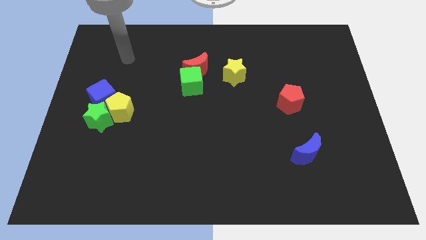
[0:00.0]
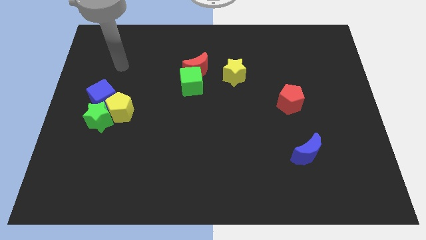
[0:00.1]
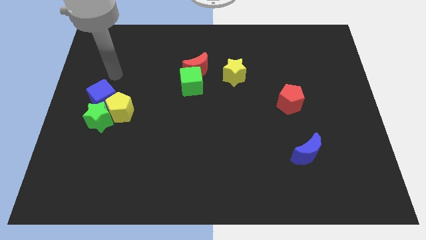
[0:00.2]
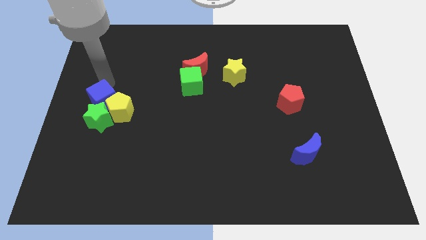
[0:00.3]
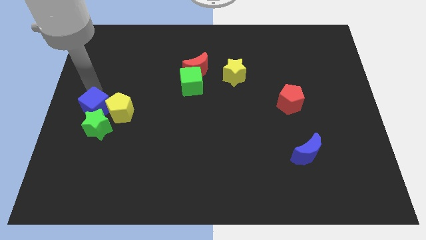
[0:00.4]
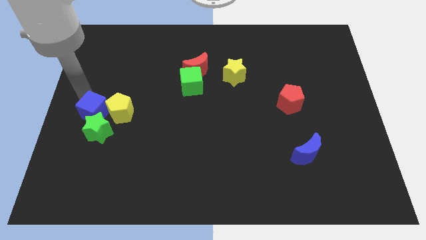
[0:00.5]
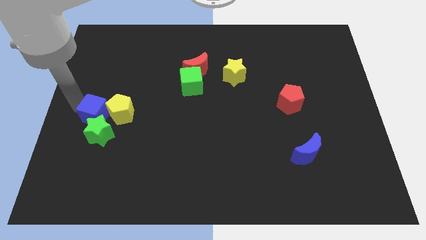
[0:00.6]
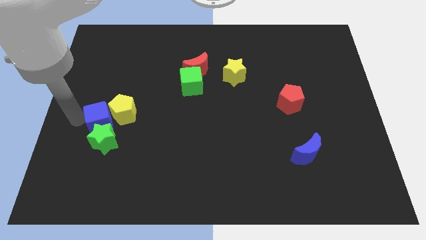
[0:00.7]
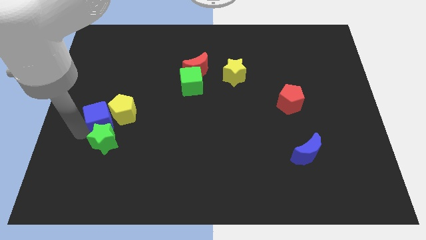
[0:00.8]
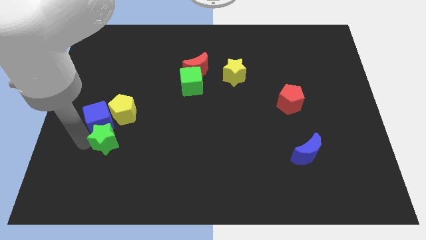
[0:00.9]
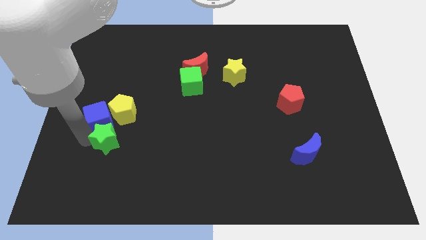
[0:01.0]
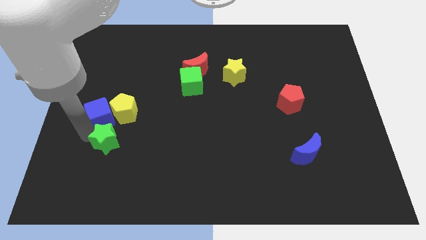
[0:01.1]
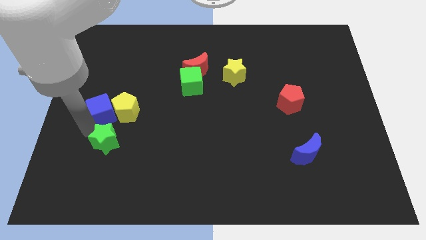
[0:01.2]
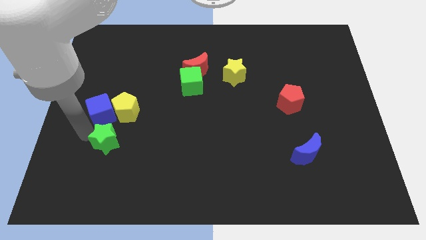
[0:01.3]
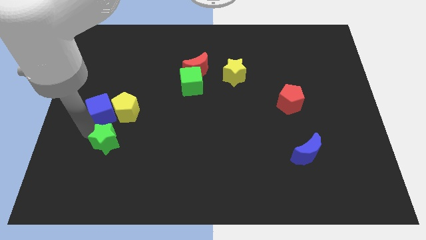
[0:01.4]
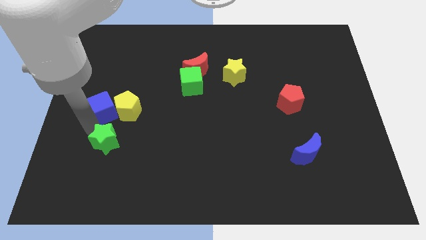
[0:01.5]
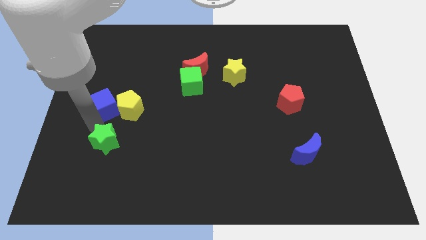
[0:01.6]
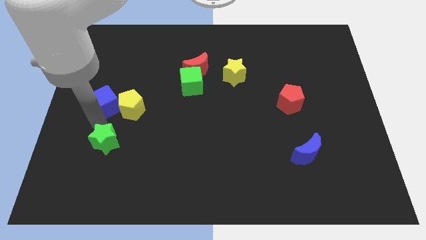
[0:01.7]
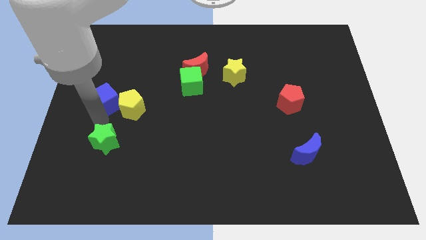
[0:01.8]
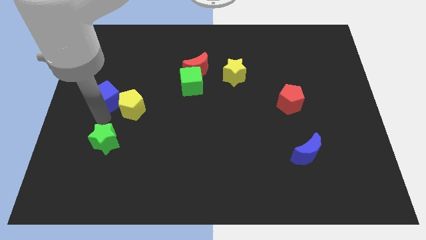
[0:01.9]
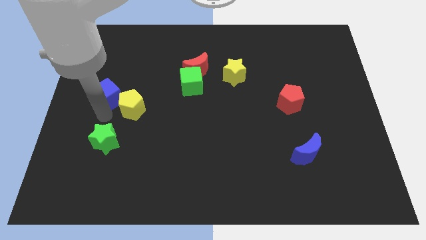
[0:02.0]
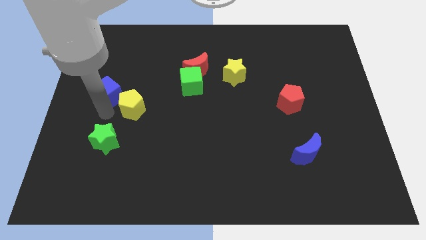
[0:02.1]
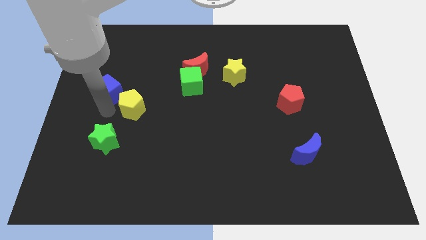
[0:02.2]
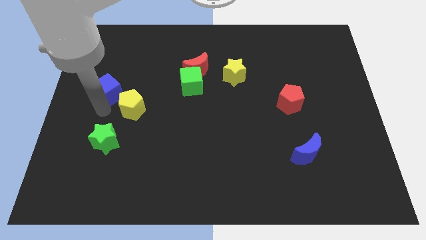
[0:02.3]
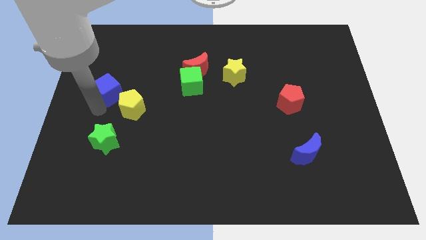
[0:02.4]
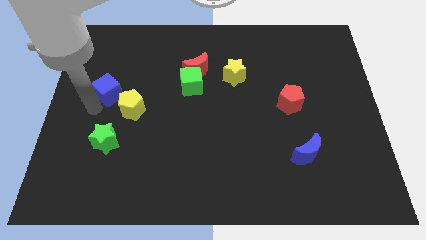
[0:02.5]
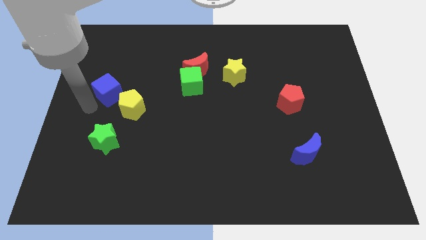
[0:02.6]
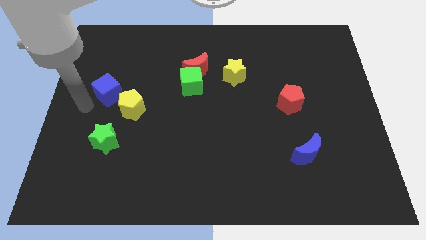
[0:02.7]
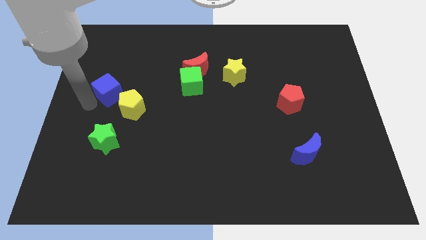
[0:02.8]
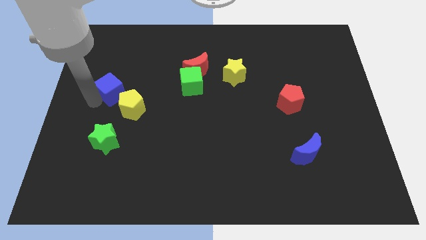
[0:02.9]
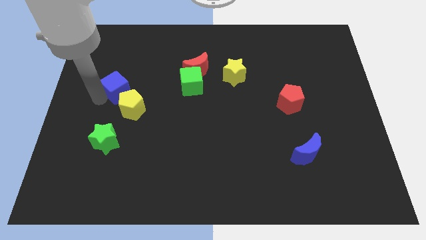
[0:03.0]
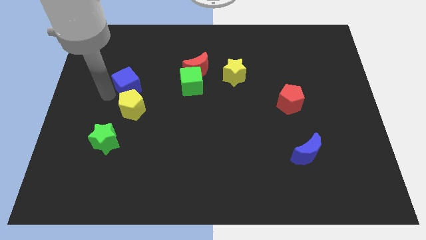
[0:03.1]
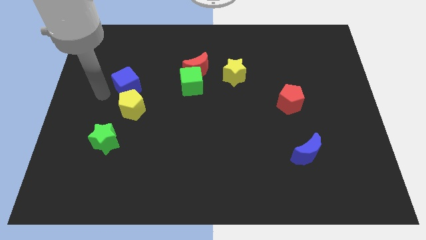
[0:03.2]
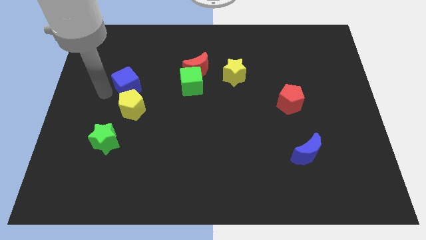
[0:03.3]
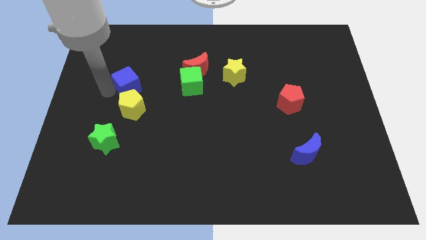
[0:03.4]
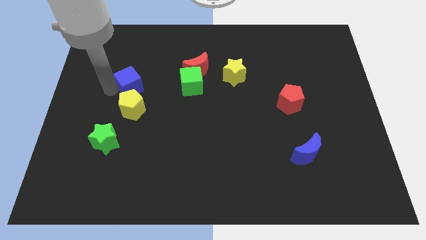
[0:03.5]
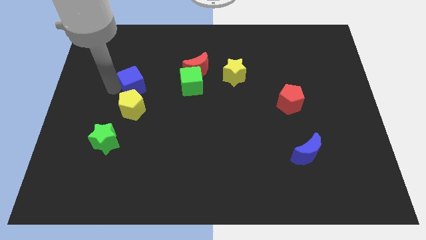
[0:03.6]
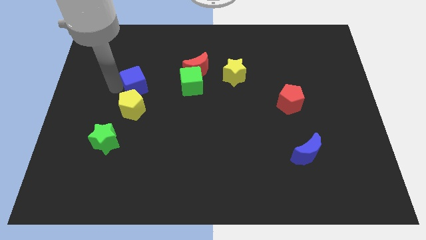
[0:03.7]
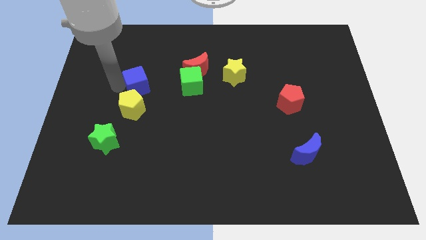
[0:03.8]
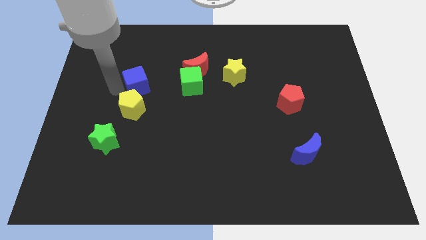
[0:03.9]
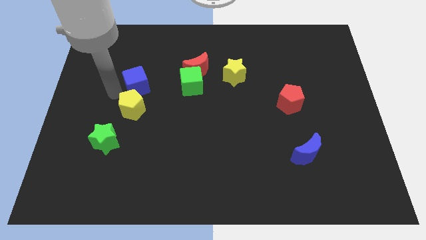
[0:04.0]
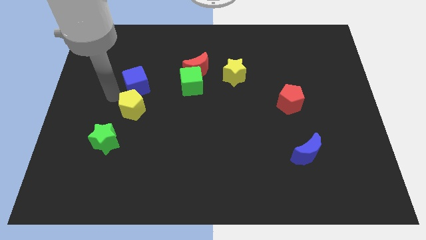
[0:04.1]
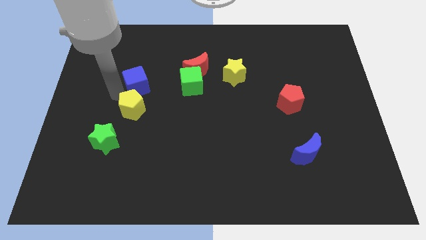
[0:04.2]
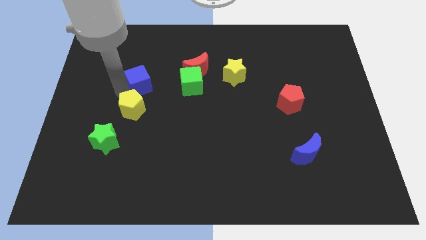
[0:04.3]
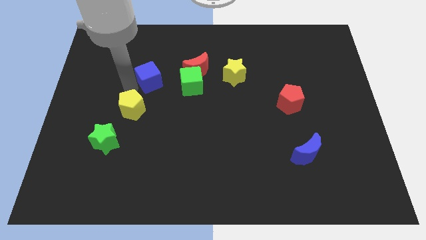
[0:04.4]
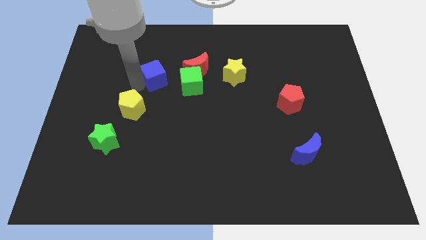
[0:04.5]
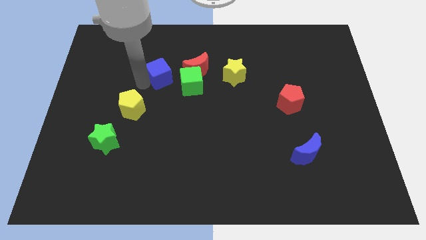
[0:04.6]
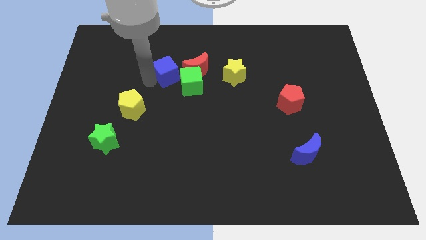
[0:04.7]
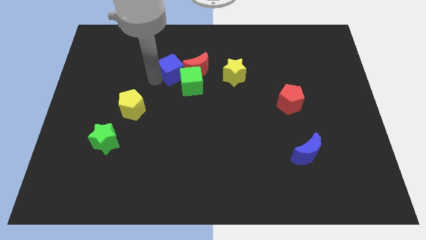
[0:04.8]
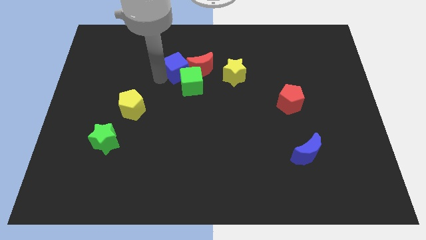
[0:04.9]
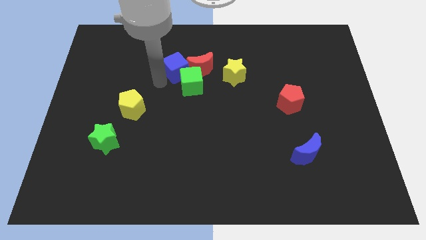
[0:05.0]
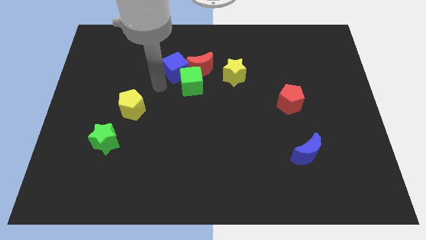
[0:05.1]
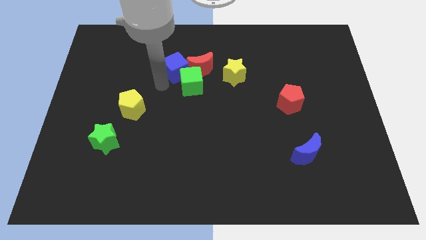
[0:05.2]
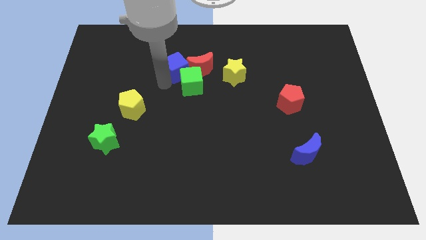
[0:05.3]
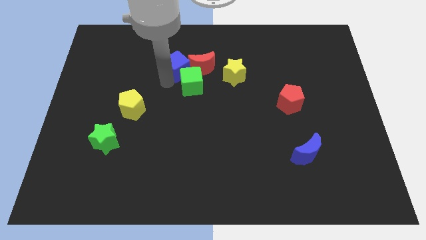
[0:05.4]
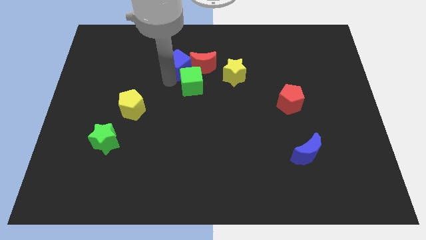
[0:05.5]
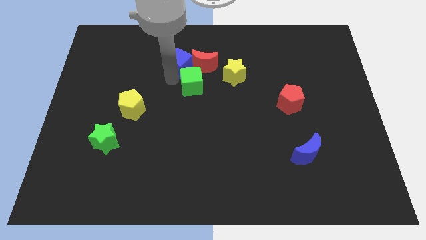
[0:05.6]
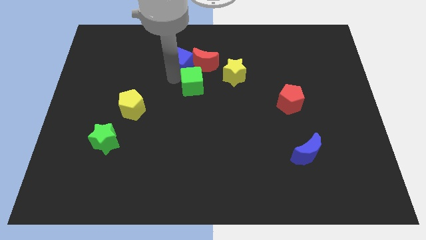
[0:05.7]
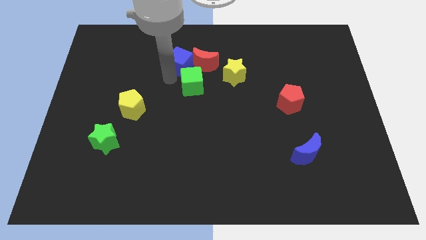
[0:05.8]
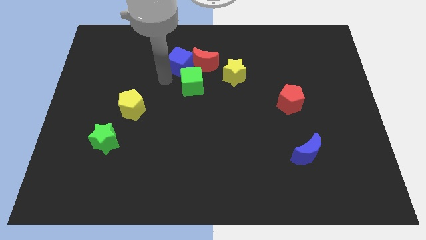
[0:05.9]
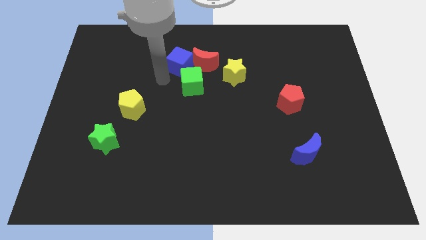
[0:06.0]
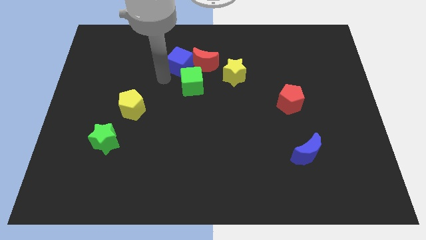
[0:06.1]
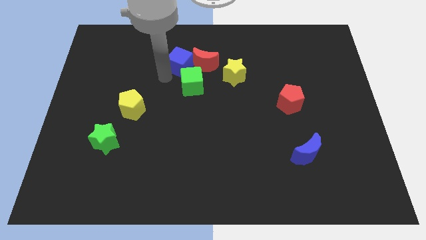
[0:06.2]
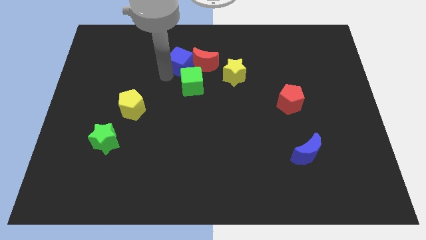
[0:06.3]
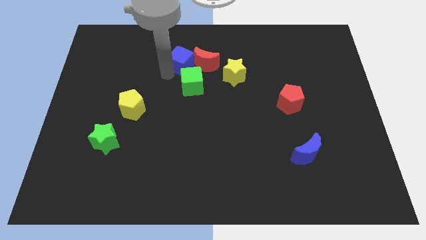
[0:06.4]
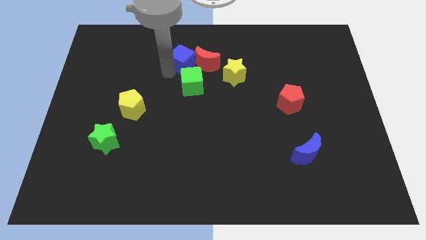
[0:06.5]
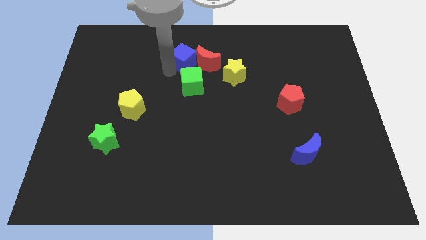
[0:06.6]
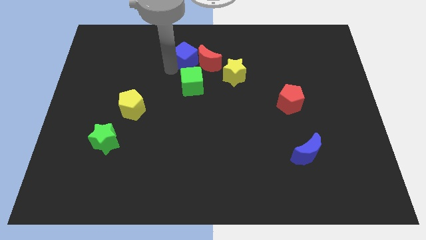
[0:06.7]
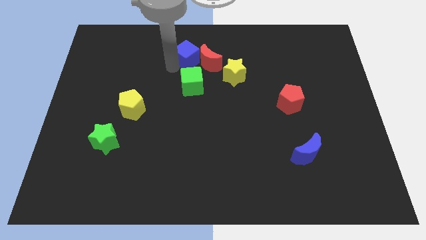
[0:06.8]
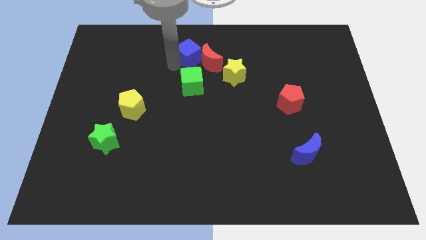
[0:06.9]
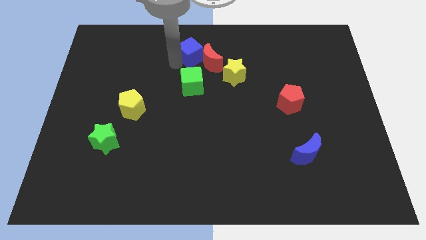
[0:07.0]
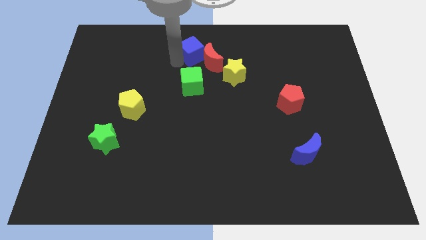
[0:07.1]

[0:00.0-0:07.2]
put the blue cube to the towards your base

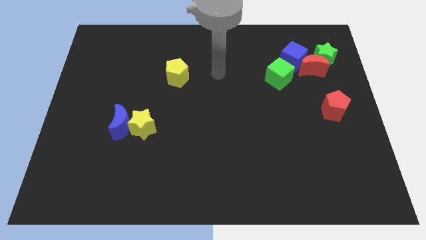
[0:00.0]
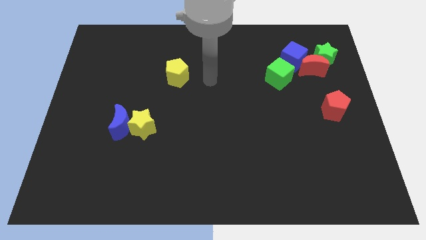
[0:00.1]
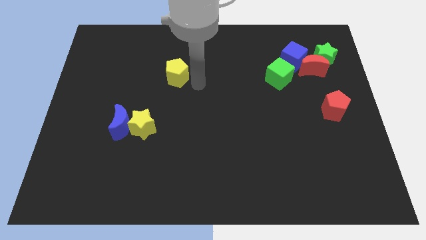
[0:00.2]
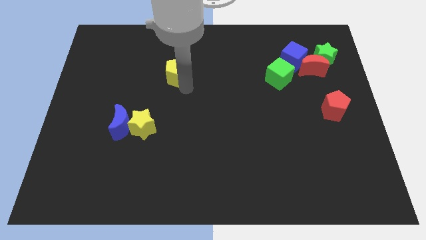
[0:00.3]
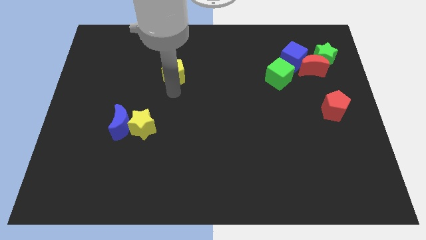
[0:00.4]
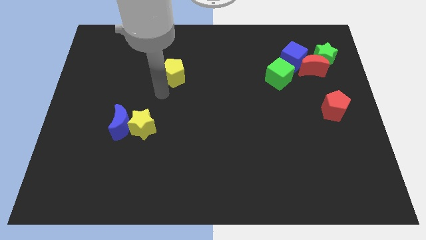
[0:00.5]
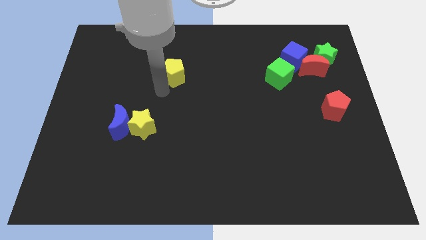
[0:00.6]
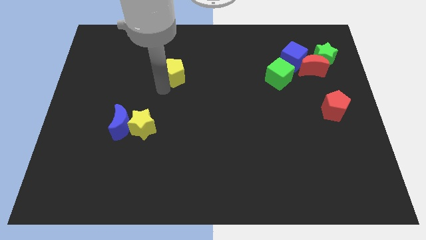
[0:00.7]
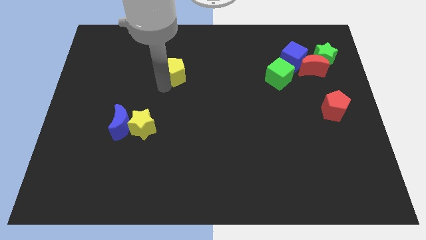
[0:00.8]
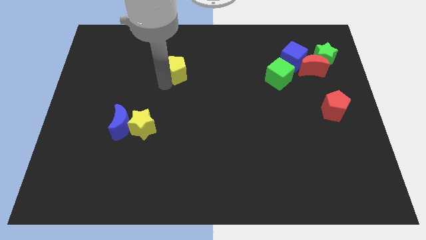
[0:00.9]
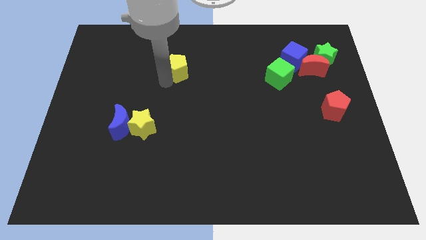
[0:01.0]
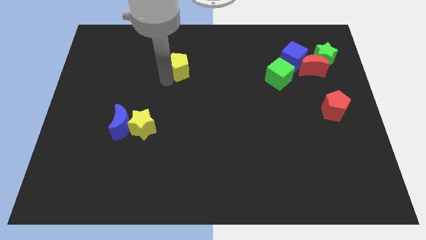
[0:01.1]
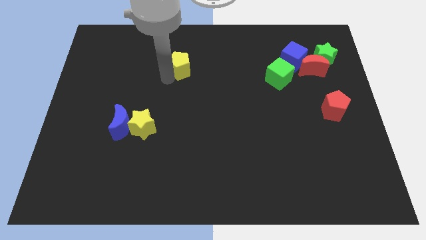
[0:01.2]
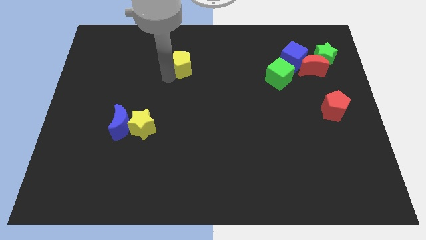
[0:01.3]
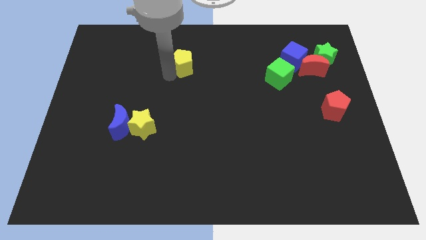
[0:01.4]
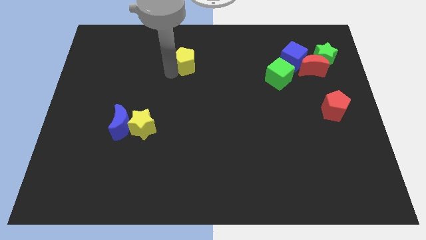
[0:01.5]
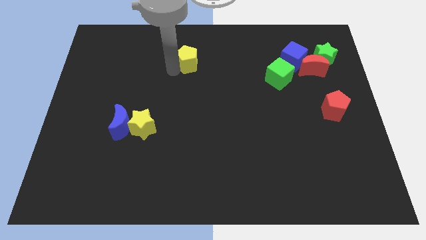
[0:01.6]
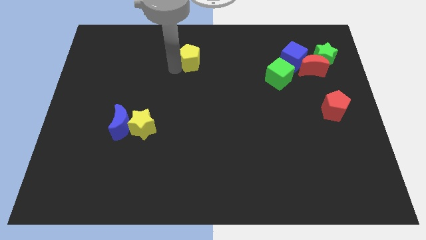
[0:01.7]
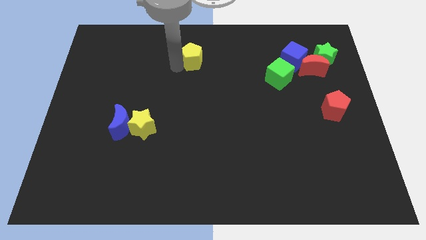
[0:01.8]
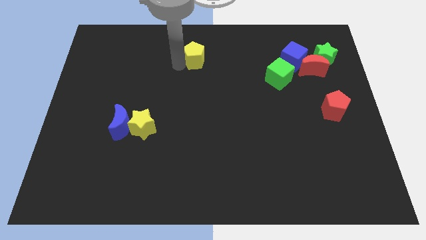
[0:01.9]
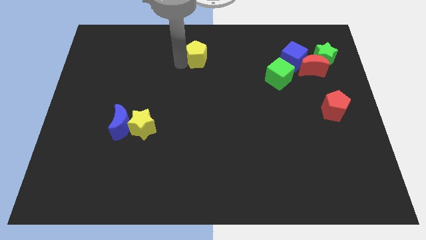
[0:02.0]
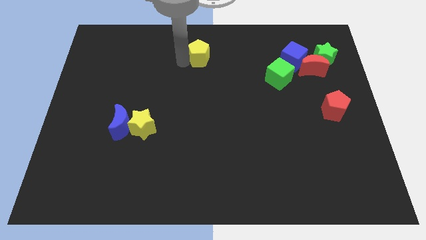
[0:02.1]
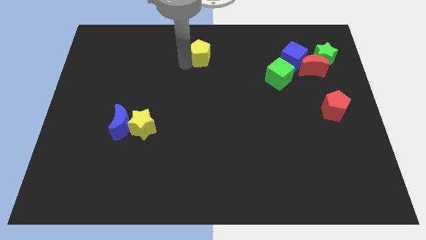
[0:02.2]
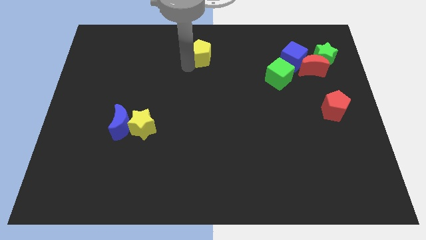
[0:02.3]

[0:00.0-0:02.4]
put the yellow pentagon to the top side
